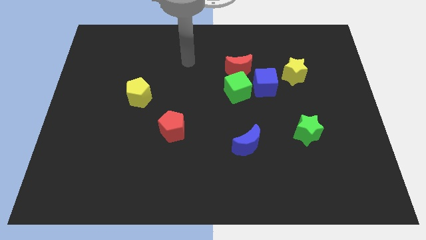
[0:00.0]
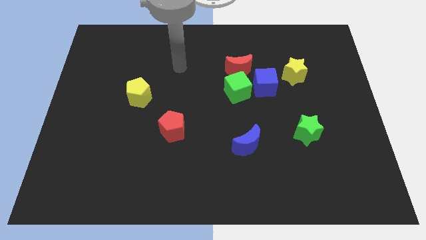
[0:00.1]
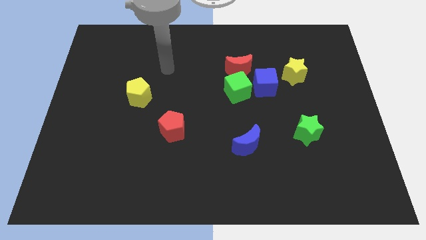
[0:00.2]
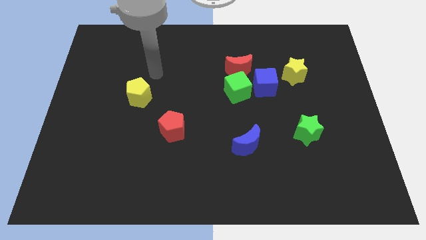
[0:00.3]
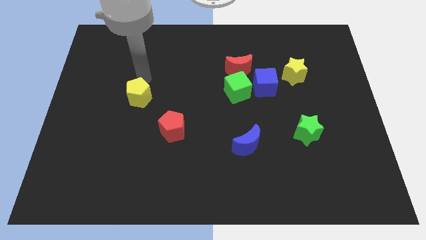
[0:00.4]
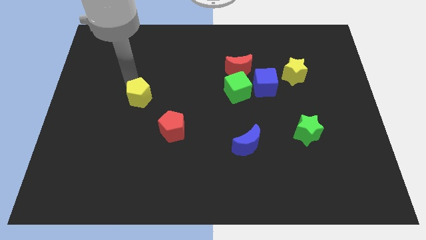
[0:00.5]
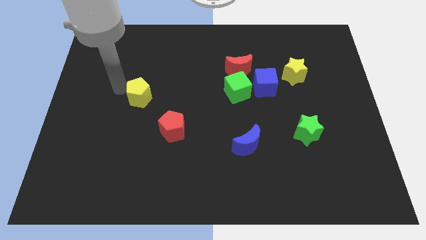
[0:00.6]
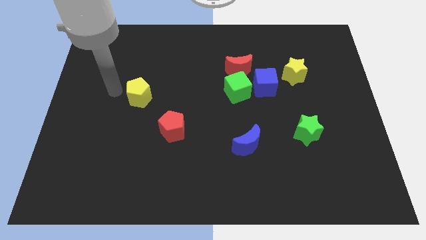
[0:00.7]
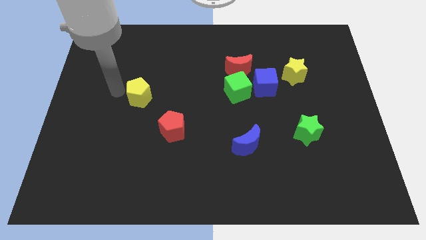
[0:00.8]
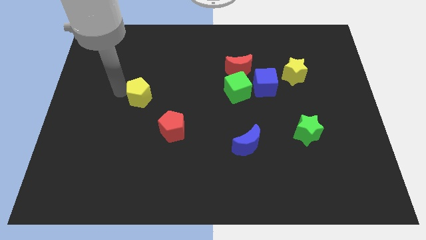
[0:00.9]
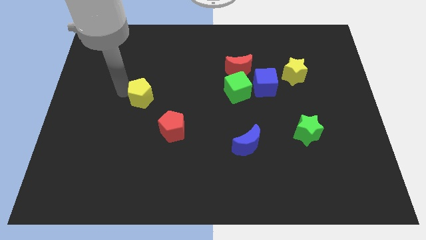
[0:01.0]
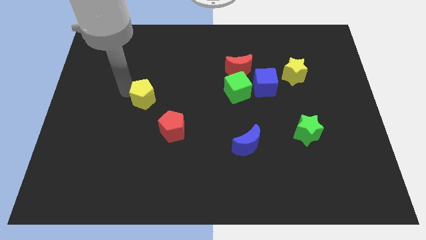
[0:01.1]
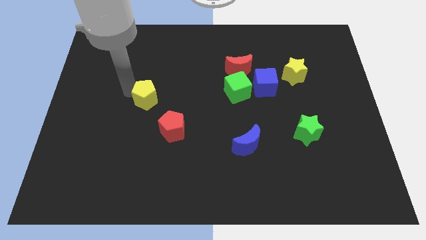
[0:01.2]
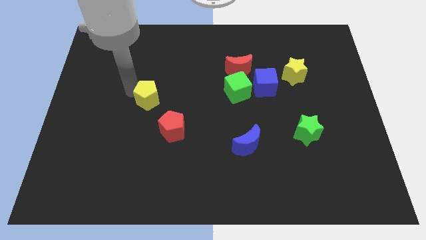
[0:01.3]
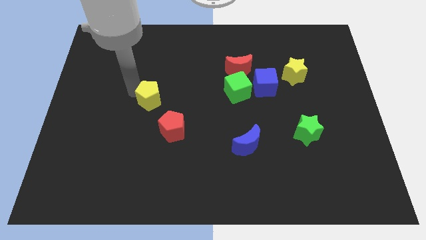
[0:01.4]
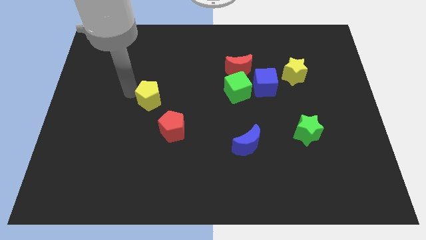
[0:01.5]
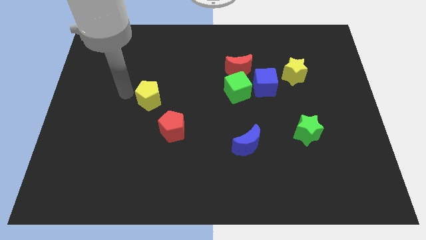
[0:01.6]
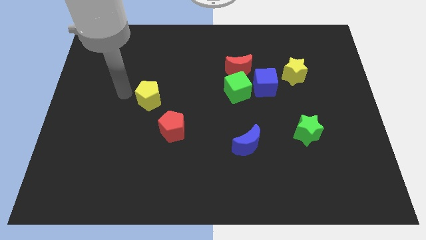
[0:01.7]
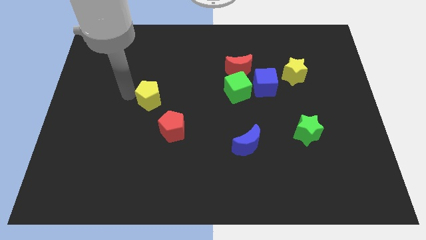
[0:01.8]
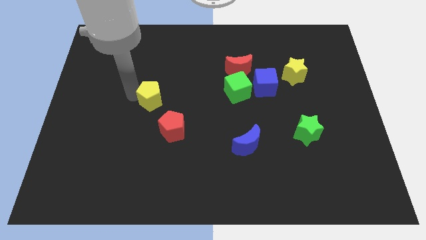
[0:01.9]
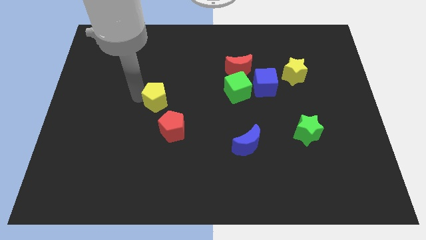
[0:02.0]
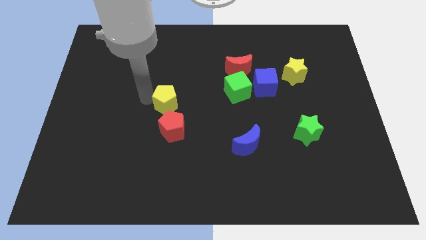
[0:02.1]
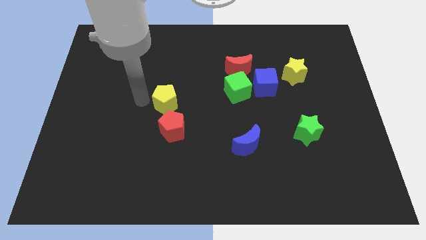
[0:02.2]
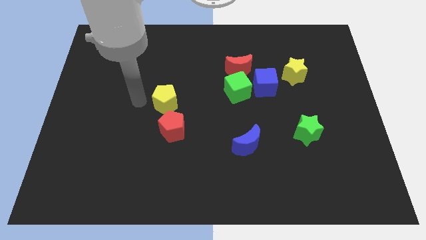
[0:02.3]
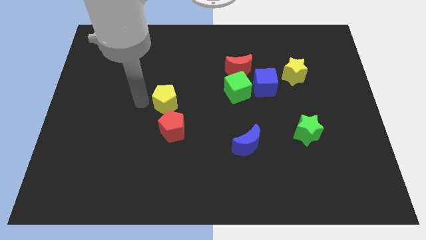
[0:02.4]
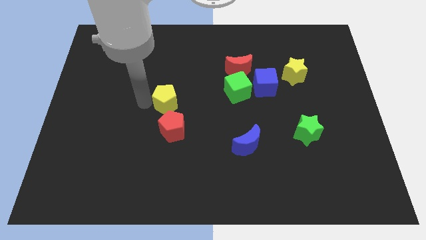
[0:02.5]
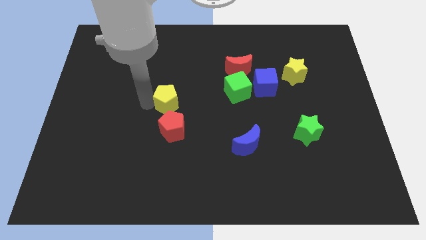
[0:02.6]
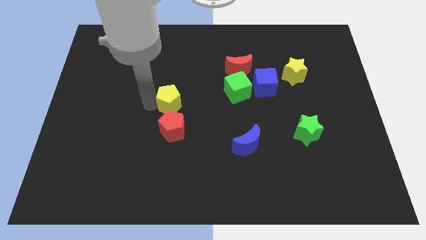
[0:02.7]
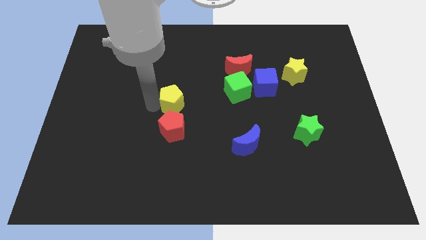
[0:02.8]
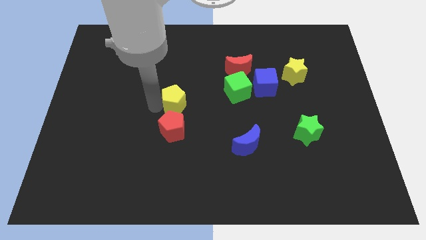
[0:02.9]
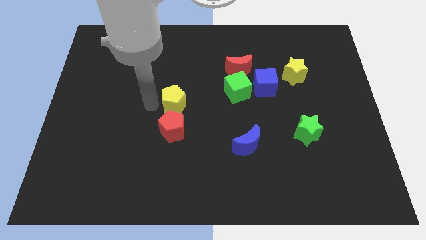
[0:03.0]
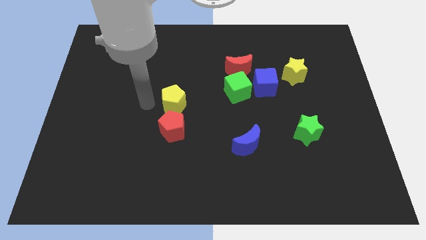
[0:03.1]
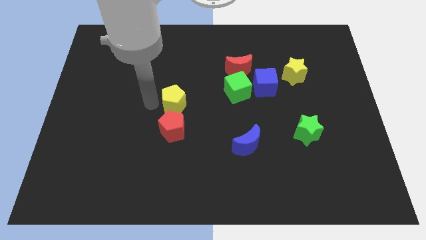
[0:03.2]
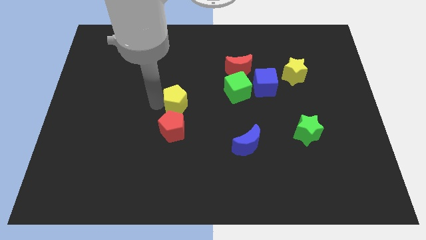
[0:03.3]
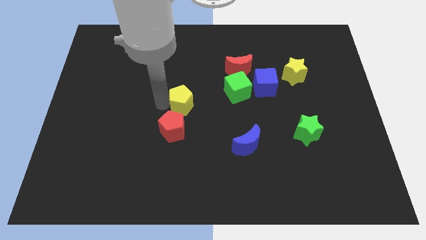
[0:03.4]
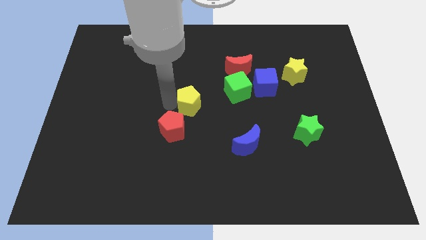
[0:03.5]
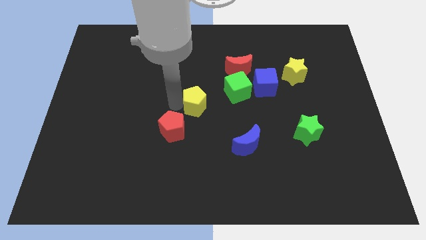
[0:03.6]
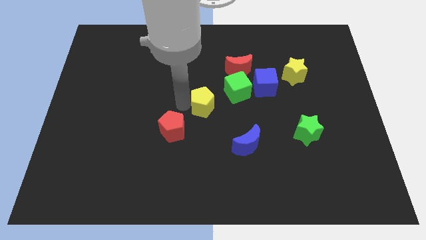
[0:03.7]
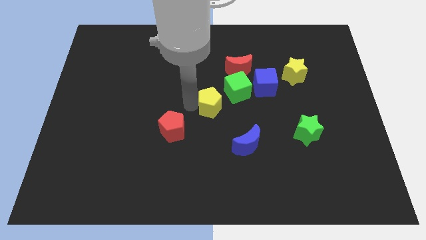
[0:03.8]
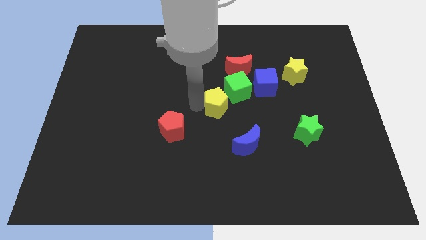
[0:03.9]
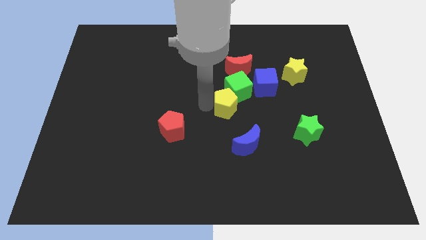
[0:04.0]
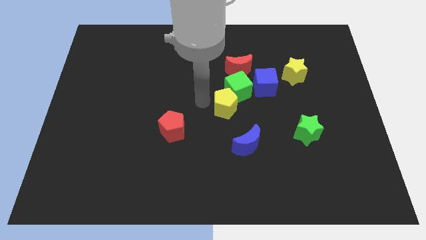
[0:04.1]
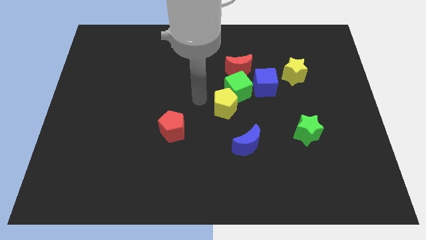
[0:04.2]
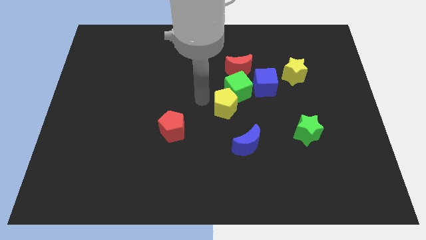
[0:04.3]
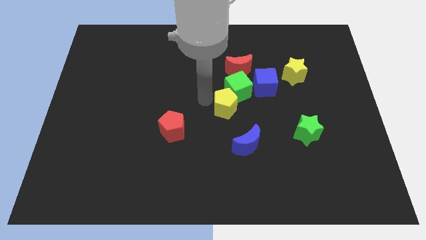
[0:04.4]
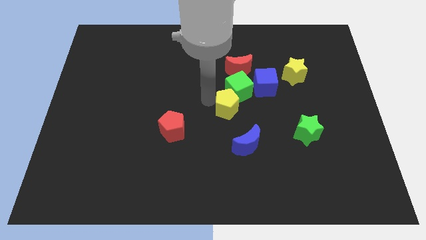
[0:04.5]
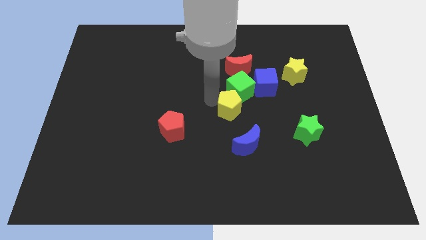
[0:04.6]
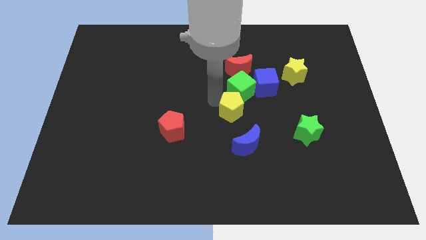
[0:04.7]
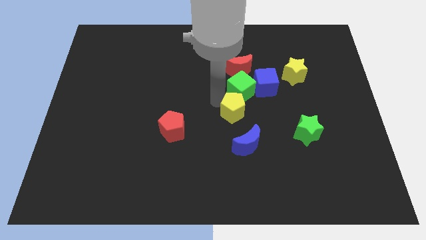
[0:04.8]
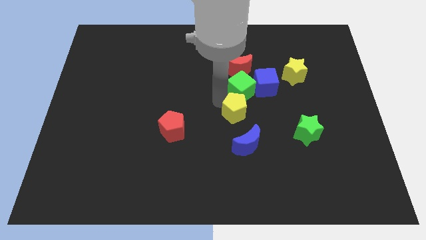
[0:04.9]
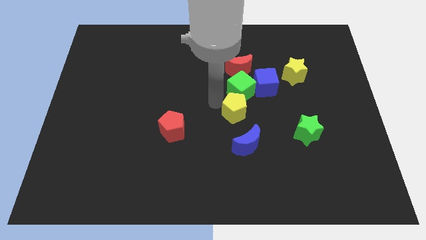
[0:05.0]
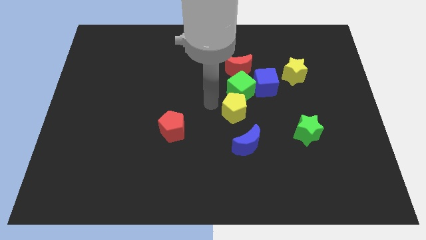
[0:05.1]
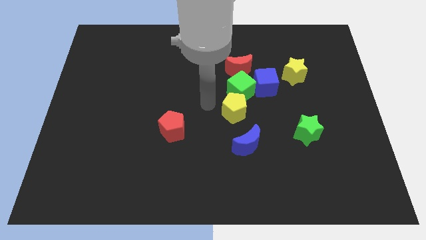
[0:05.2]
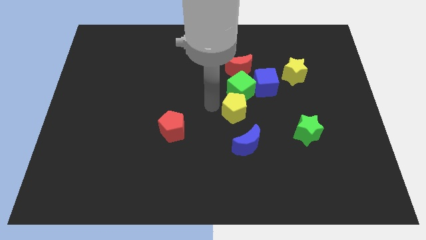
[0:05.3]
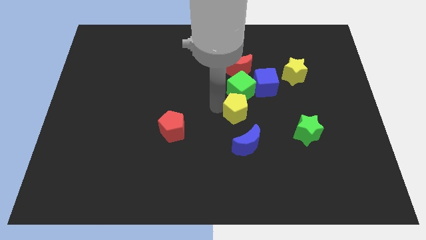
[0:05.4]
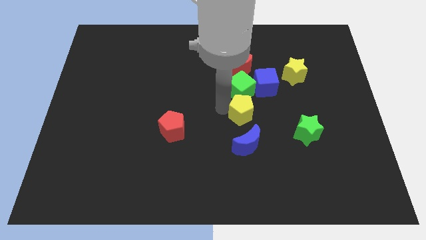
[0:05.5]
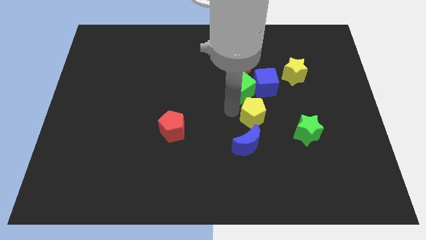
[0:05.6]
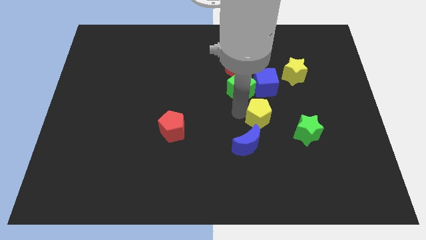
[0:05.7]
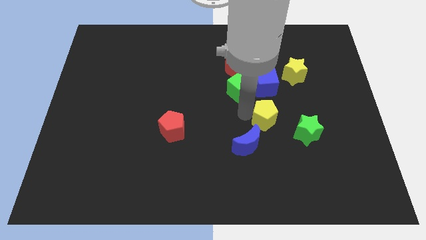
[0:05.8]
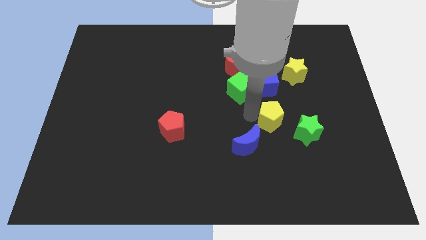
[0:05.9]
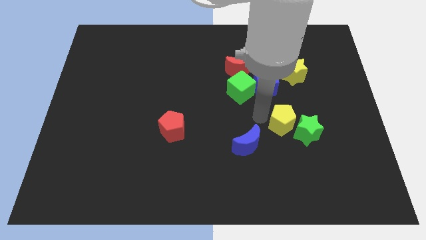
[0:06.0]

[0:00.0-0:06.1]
push the yellow pentagon towards the green star
